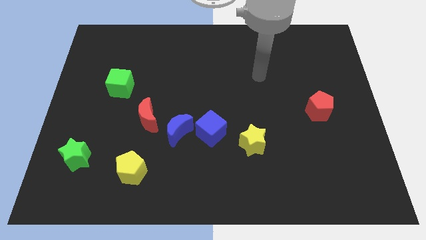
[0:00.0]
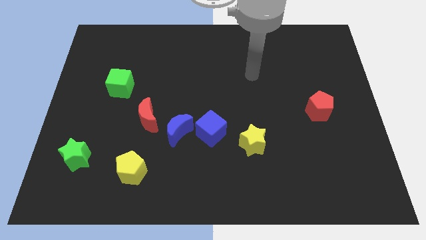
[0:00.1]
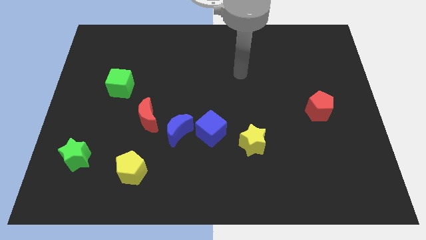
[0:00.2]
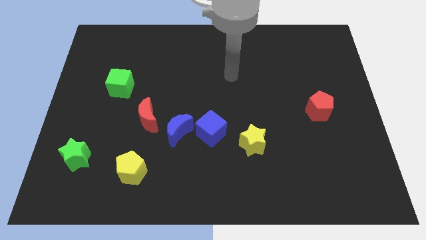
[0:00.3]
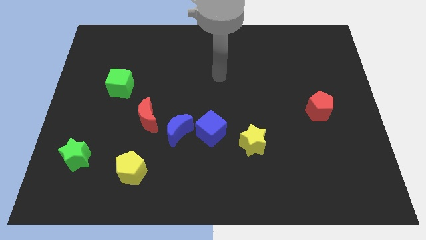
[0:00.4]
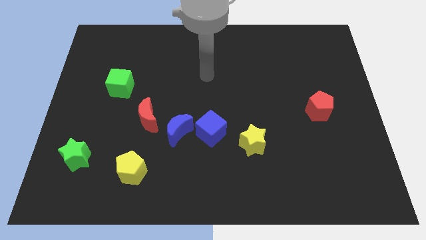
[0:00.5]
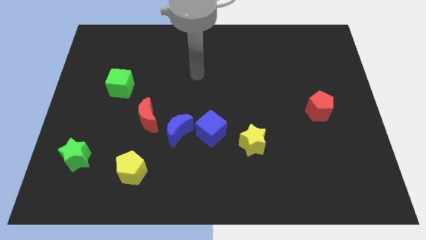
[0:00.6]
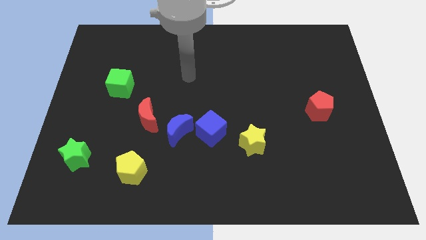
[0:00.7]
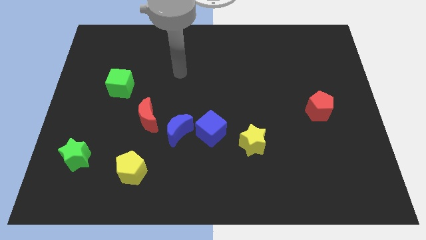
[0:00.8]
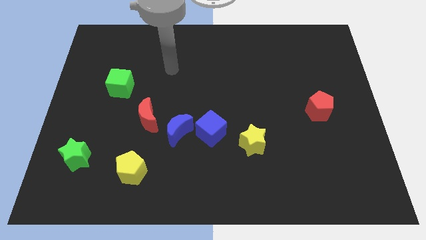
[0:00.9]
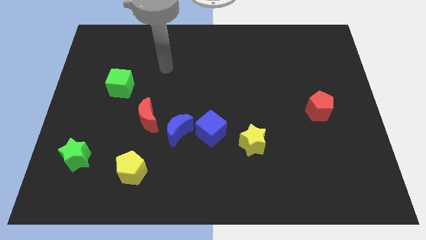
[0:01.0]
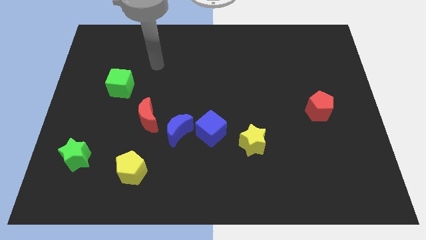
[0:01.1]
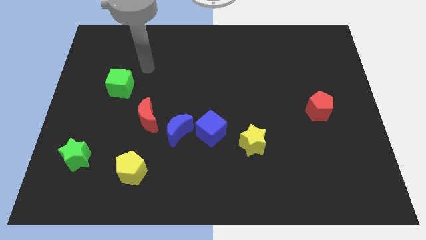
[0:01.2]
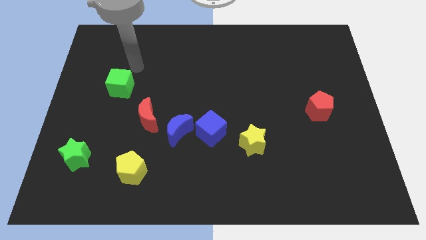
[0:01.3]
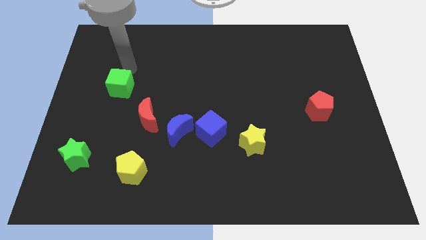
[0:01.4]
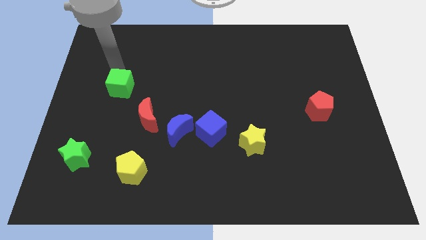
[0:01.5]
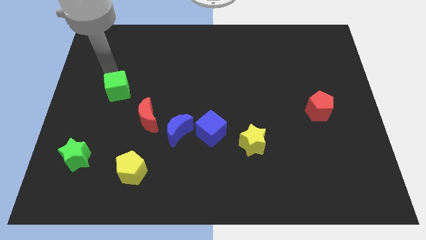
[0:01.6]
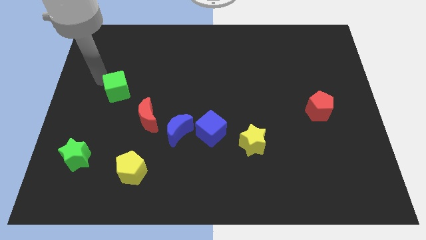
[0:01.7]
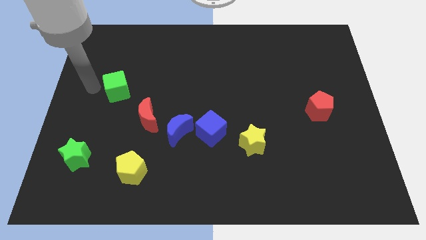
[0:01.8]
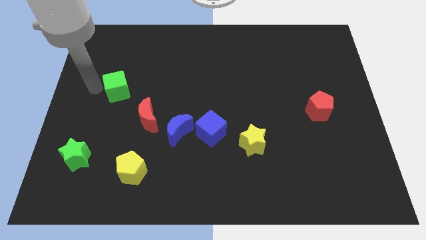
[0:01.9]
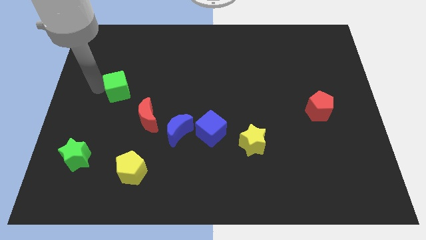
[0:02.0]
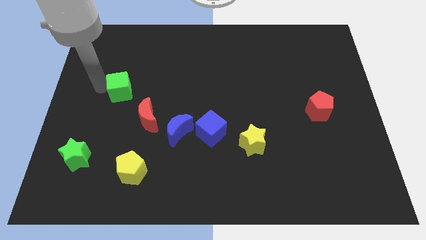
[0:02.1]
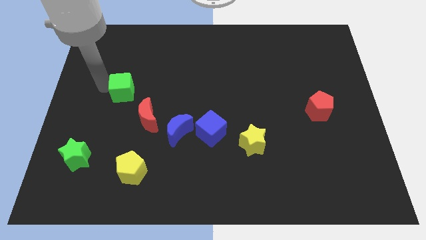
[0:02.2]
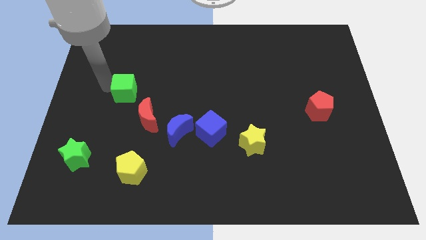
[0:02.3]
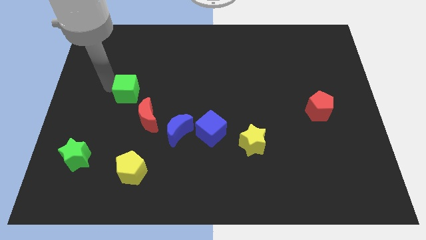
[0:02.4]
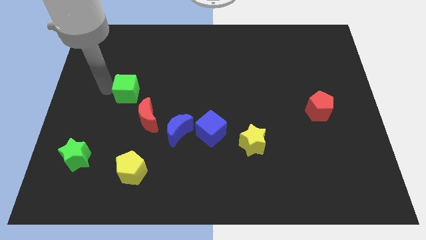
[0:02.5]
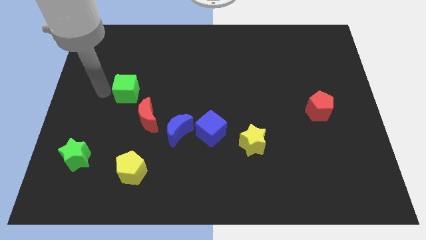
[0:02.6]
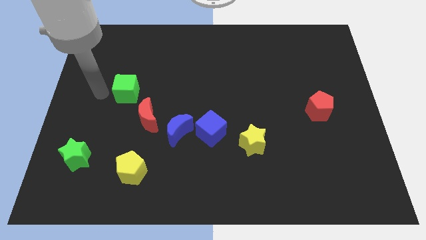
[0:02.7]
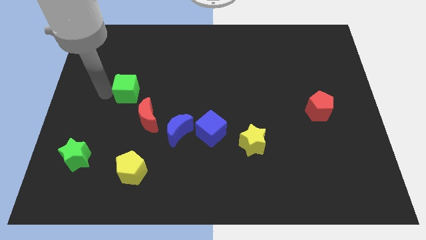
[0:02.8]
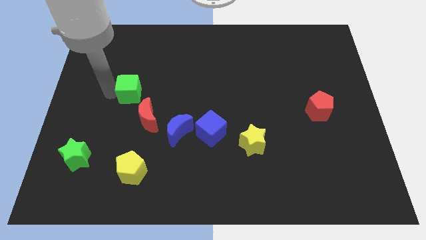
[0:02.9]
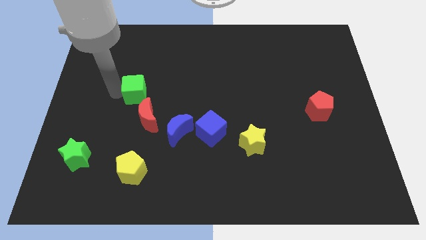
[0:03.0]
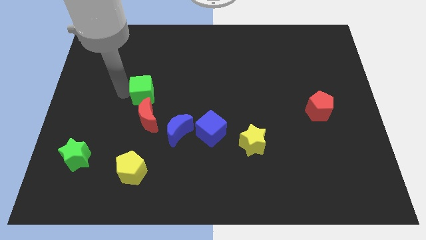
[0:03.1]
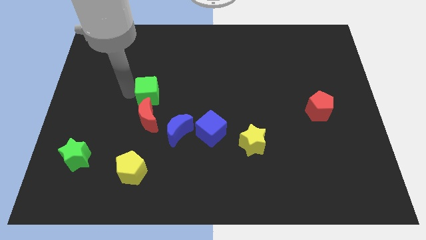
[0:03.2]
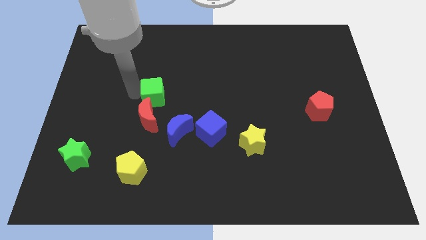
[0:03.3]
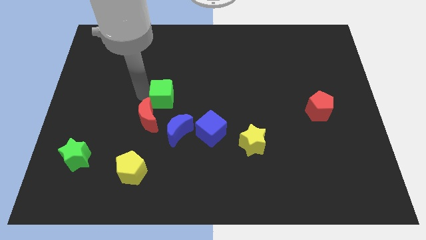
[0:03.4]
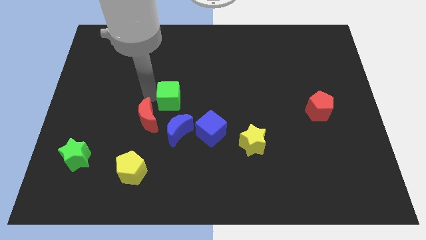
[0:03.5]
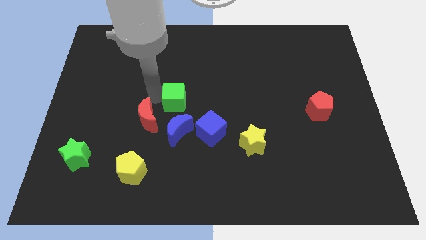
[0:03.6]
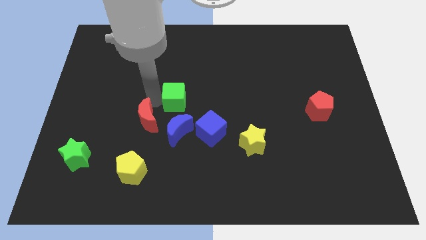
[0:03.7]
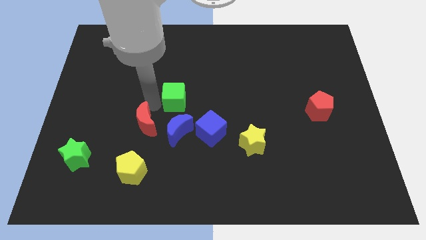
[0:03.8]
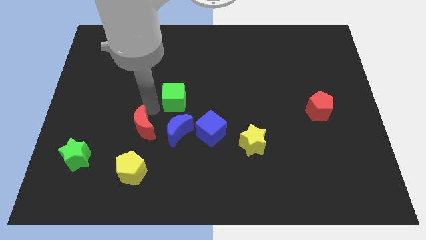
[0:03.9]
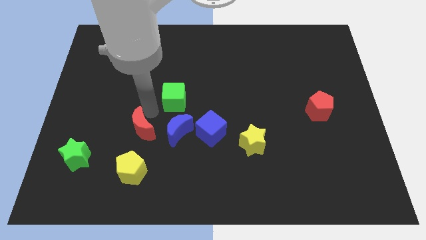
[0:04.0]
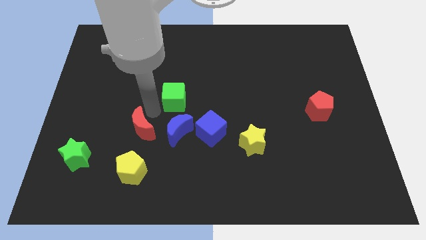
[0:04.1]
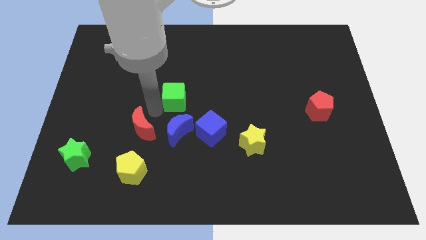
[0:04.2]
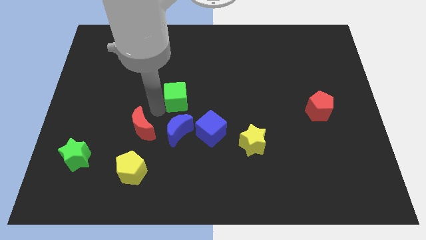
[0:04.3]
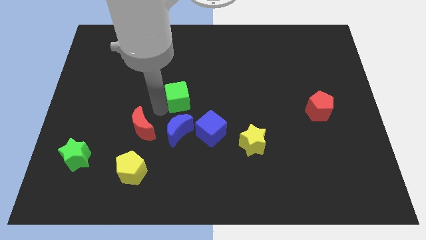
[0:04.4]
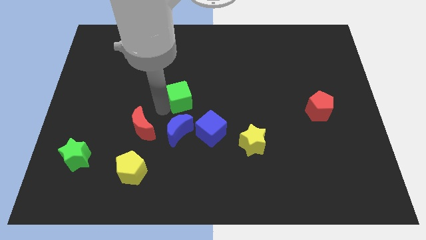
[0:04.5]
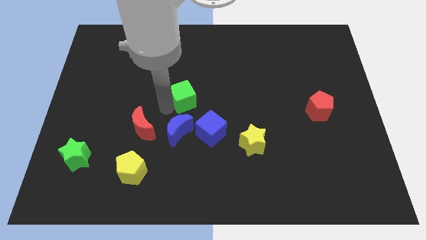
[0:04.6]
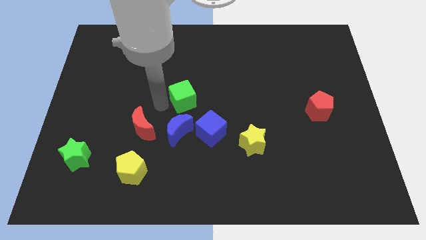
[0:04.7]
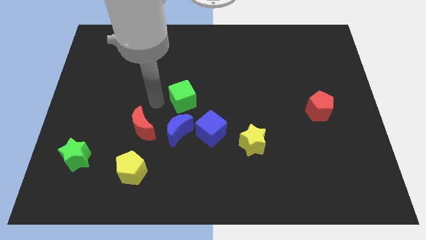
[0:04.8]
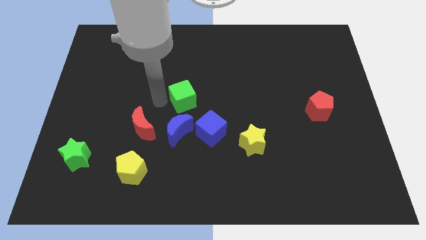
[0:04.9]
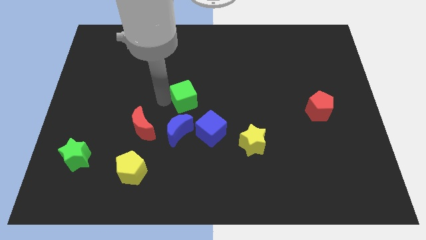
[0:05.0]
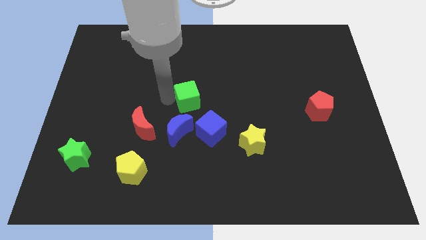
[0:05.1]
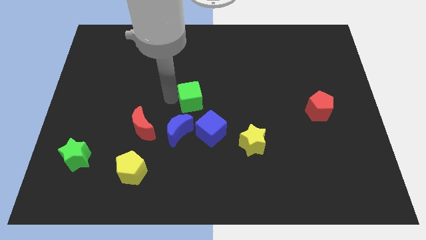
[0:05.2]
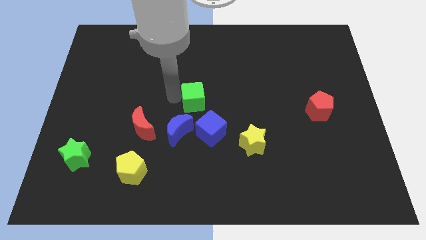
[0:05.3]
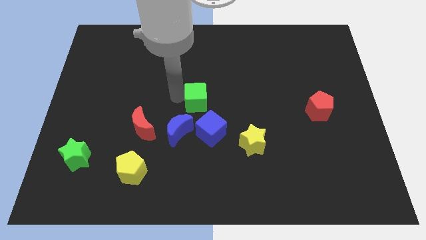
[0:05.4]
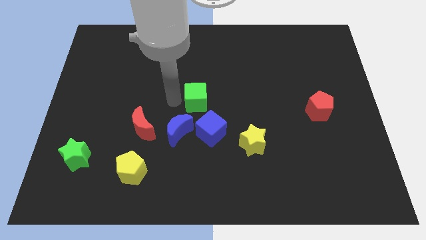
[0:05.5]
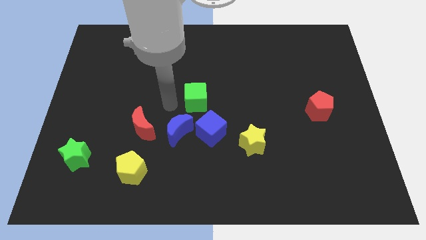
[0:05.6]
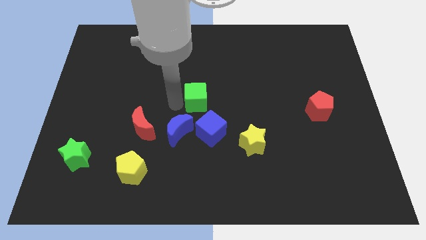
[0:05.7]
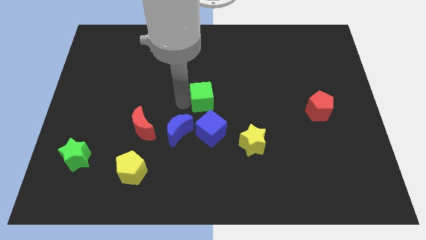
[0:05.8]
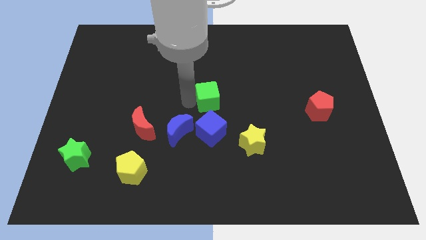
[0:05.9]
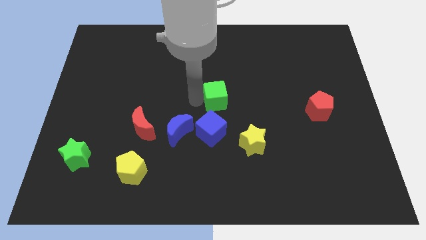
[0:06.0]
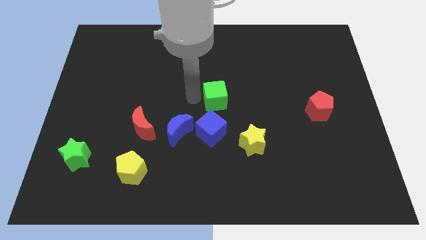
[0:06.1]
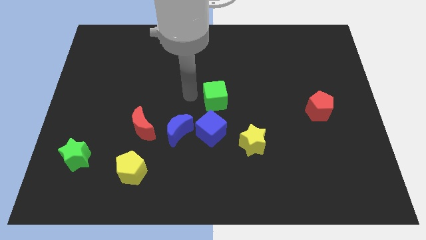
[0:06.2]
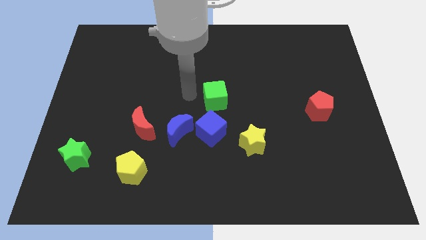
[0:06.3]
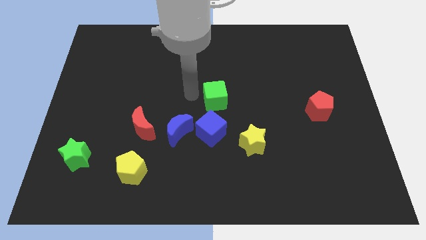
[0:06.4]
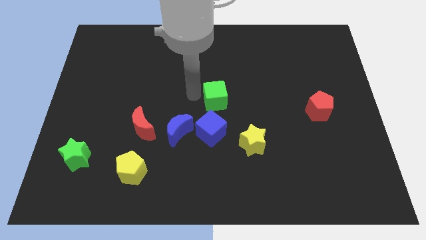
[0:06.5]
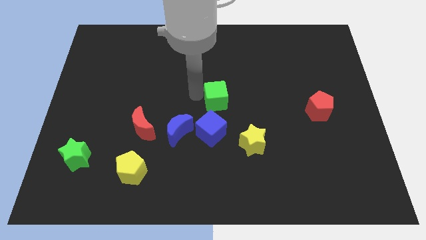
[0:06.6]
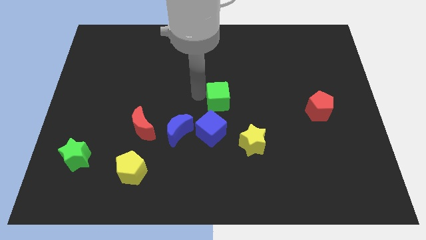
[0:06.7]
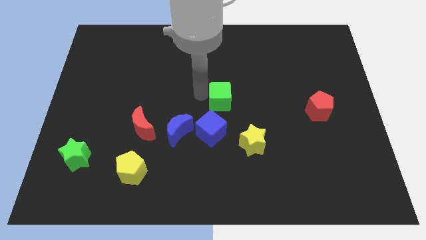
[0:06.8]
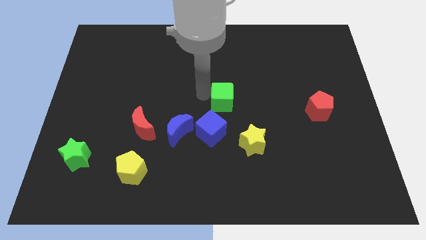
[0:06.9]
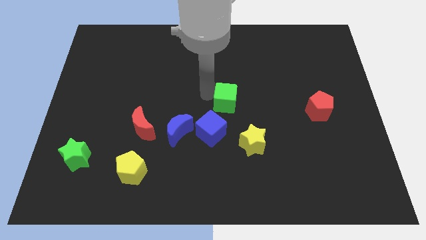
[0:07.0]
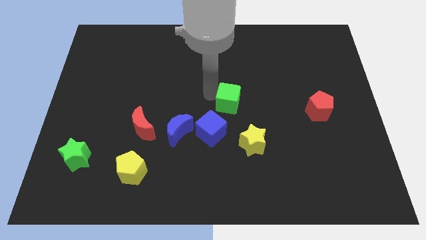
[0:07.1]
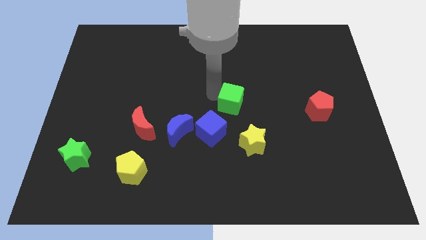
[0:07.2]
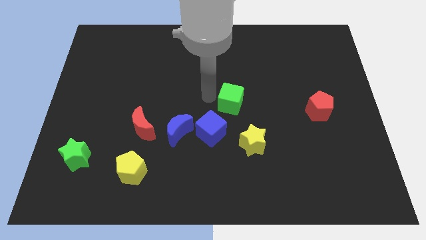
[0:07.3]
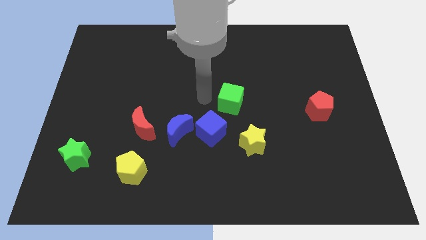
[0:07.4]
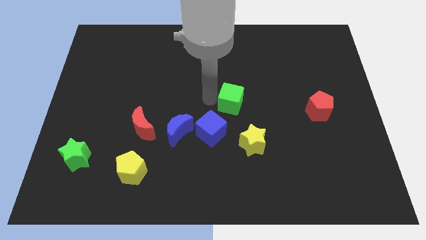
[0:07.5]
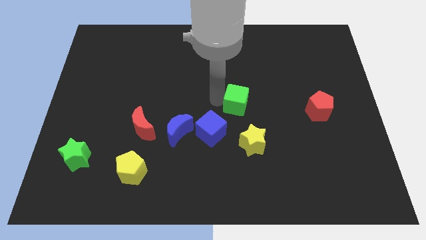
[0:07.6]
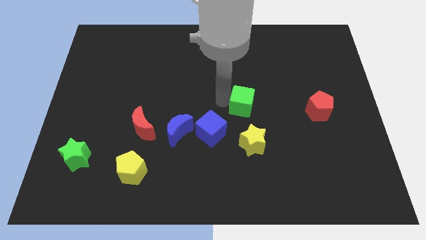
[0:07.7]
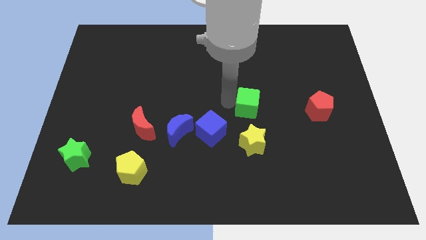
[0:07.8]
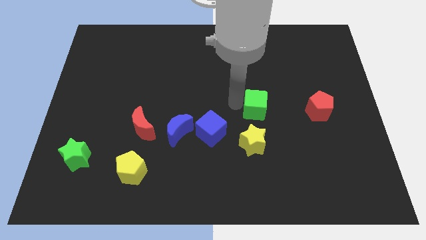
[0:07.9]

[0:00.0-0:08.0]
put the green cube left of the red pentagon
